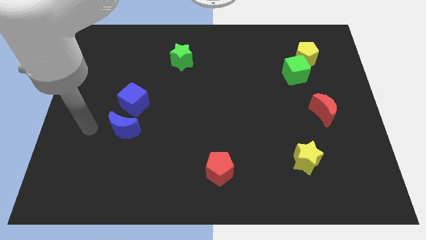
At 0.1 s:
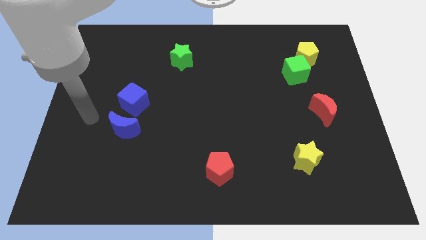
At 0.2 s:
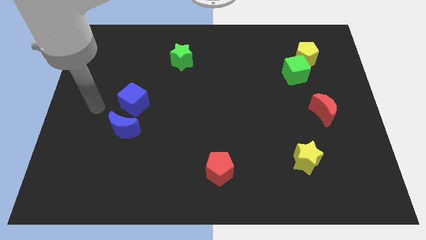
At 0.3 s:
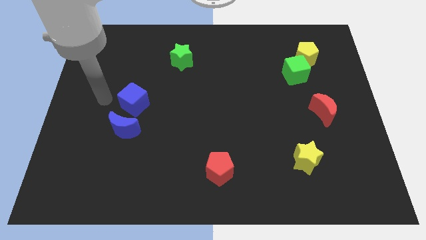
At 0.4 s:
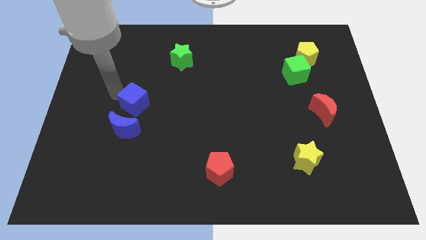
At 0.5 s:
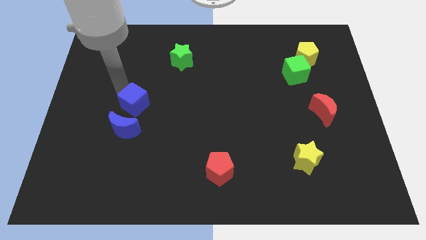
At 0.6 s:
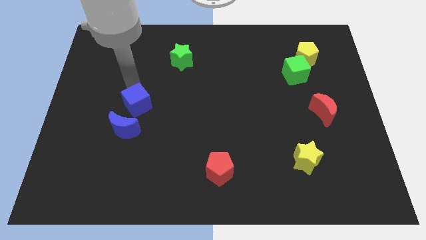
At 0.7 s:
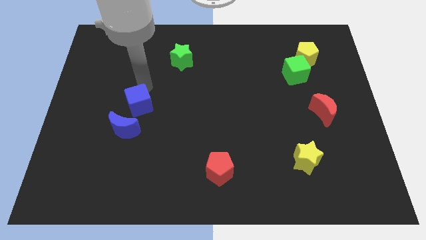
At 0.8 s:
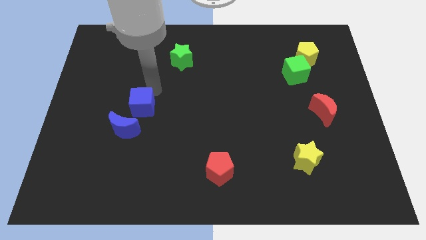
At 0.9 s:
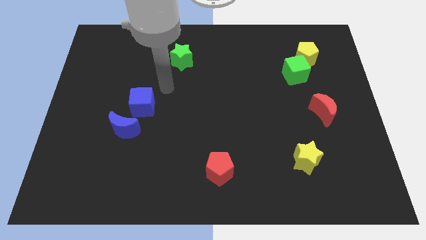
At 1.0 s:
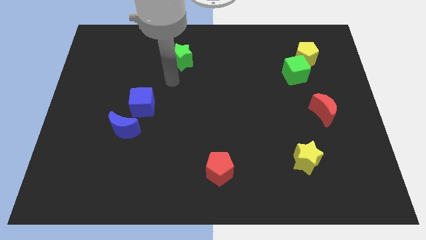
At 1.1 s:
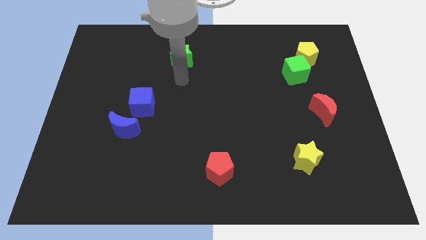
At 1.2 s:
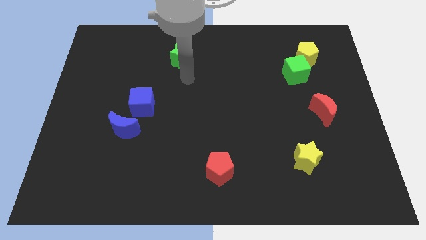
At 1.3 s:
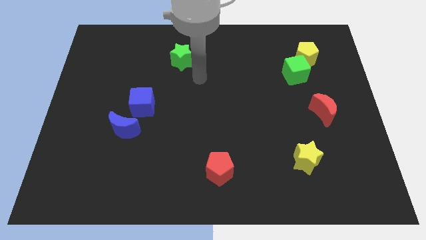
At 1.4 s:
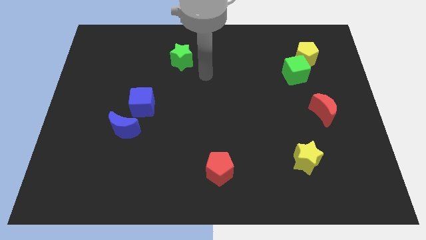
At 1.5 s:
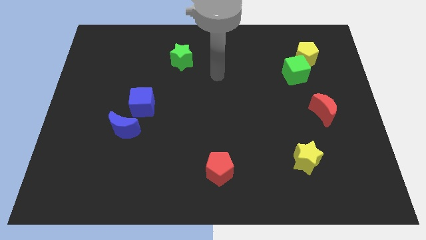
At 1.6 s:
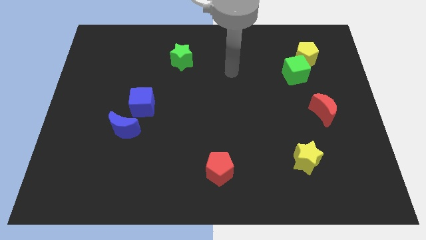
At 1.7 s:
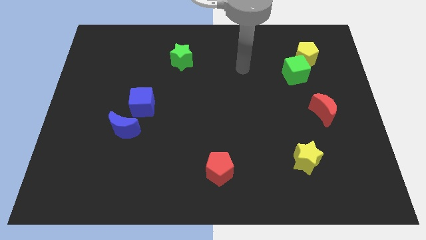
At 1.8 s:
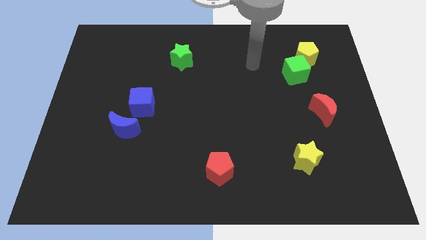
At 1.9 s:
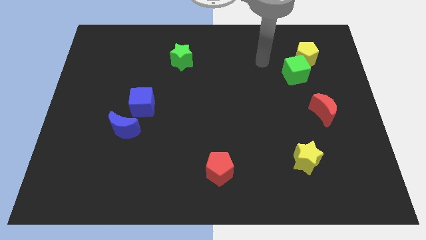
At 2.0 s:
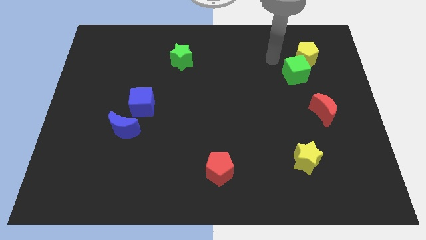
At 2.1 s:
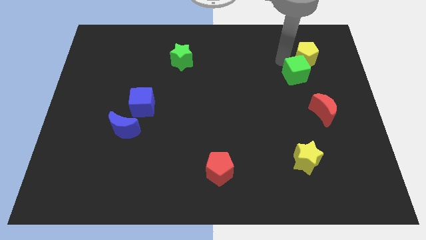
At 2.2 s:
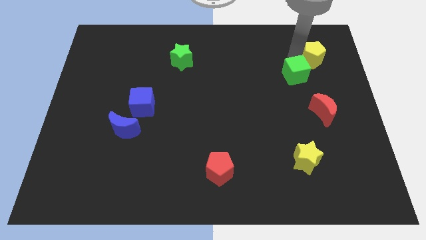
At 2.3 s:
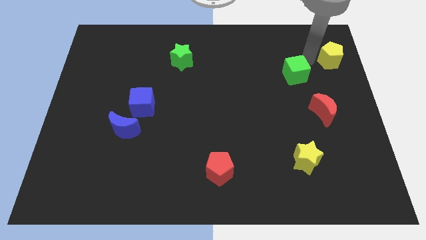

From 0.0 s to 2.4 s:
move the green cube away from the yellow pentagon

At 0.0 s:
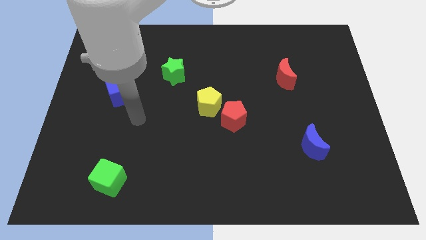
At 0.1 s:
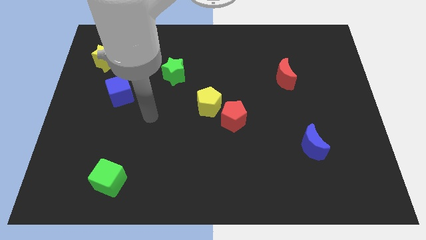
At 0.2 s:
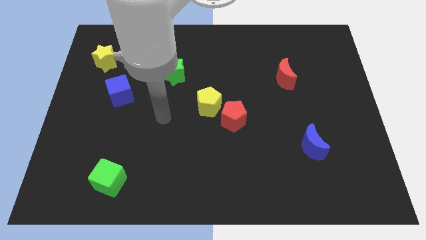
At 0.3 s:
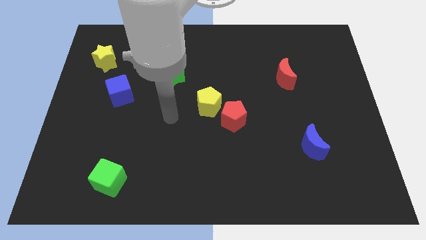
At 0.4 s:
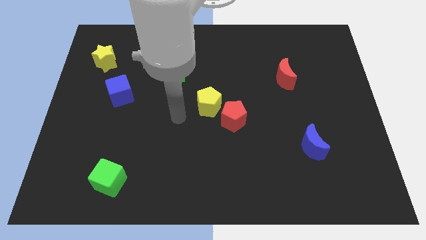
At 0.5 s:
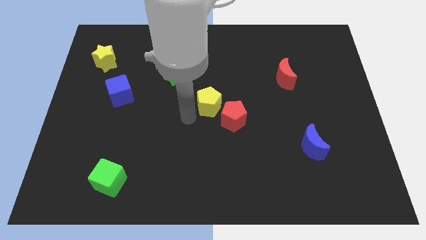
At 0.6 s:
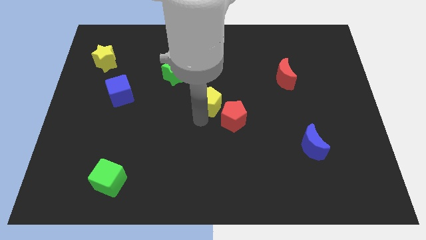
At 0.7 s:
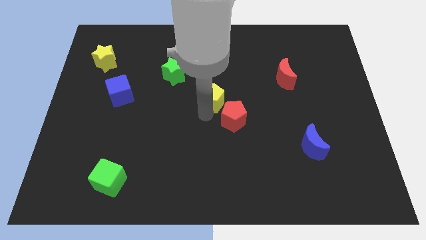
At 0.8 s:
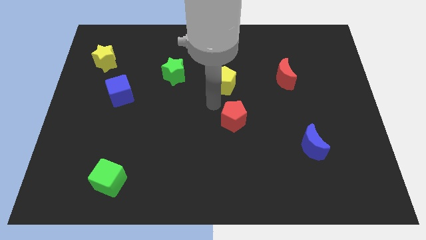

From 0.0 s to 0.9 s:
separate the red pentagon from the yellow pentagon

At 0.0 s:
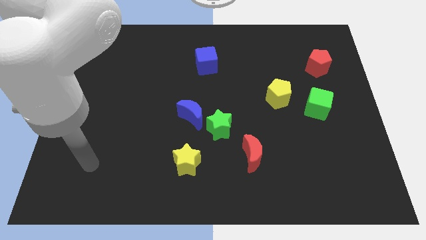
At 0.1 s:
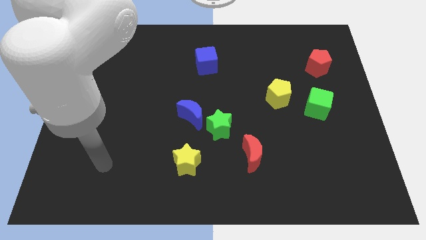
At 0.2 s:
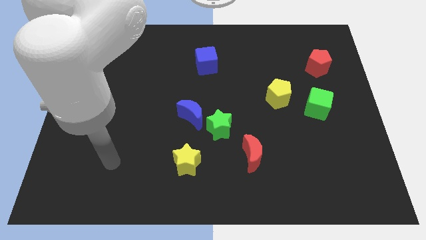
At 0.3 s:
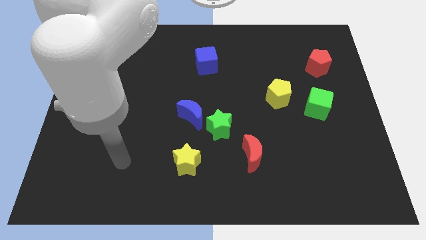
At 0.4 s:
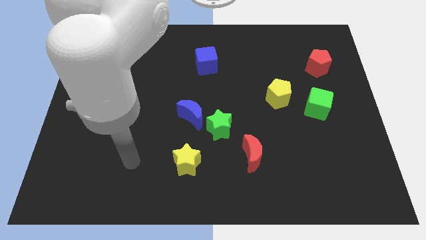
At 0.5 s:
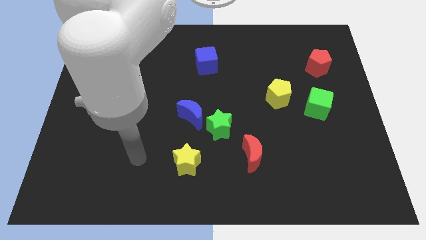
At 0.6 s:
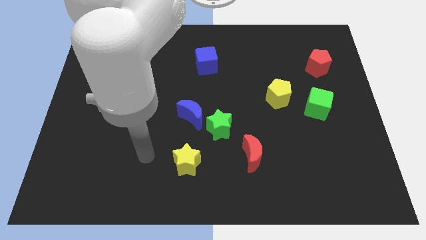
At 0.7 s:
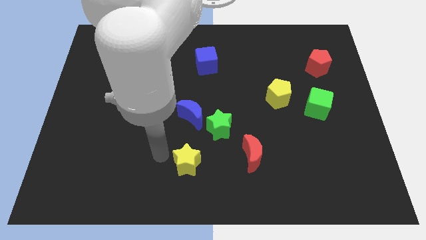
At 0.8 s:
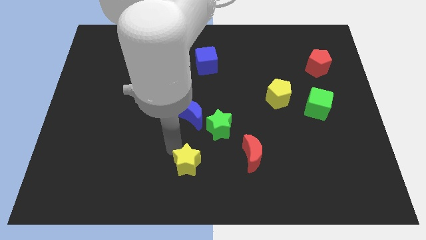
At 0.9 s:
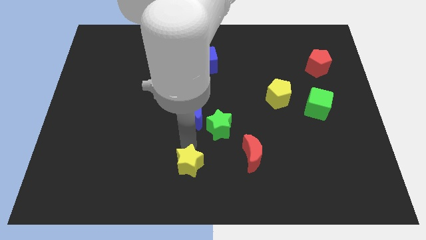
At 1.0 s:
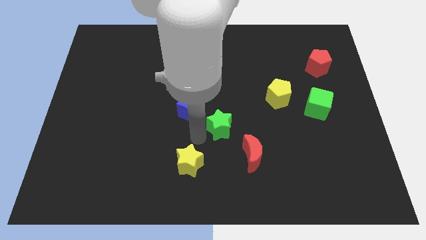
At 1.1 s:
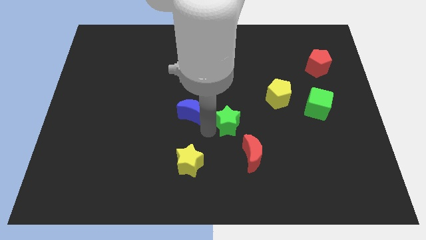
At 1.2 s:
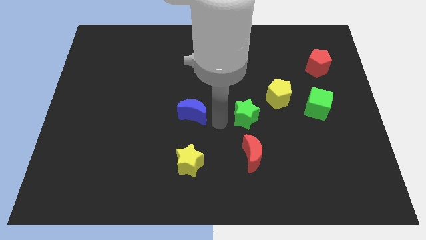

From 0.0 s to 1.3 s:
separate the blue moon from the green star

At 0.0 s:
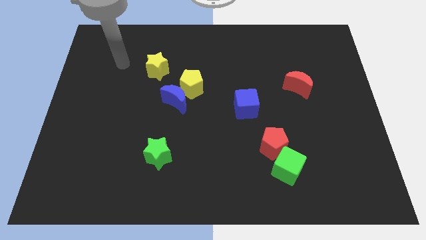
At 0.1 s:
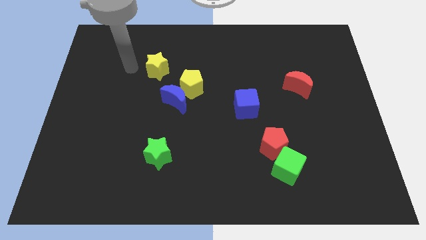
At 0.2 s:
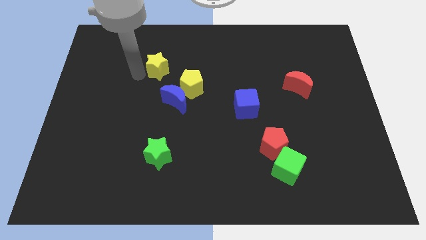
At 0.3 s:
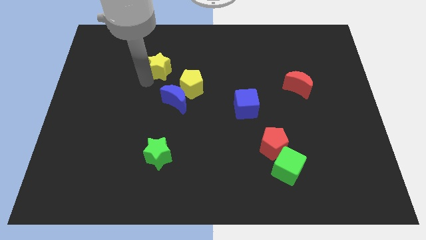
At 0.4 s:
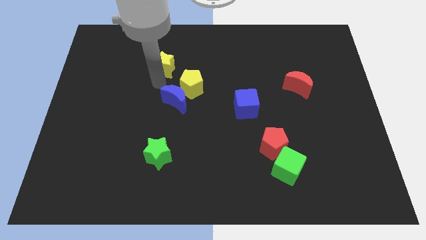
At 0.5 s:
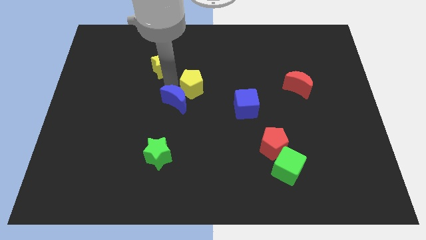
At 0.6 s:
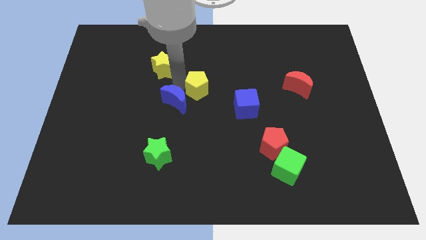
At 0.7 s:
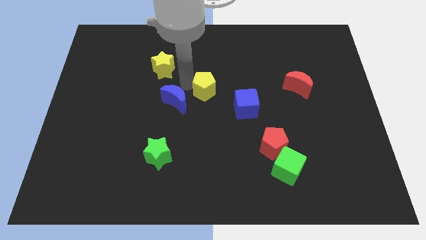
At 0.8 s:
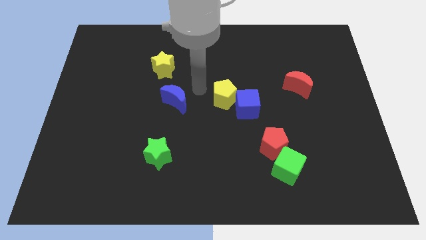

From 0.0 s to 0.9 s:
separate the blue moon from the yellow pentagon

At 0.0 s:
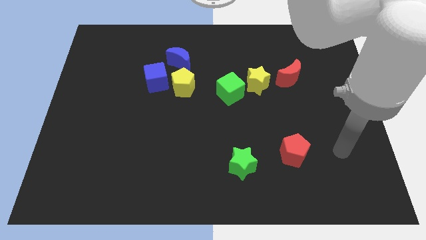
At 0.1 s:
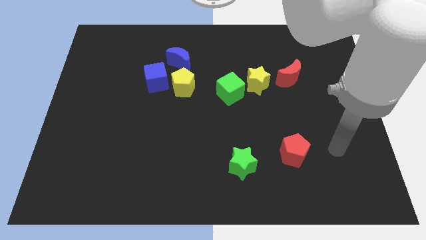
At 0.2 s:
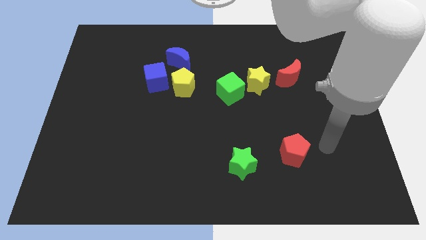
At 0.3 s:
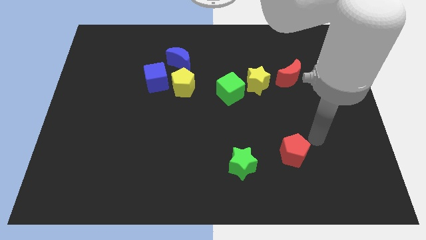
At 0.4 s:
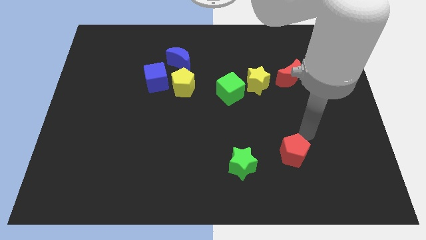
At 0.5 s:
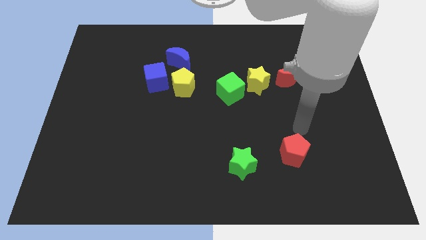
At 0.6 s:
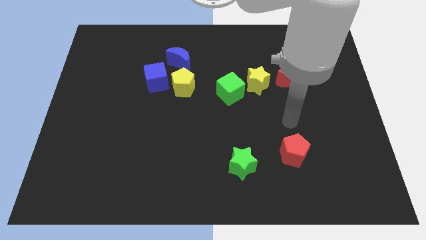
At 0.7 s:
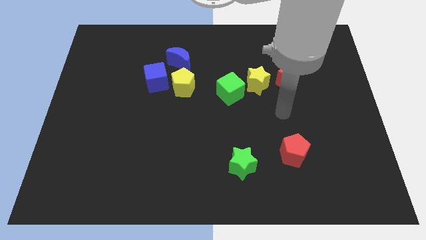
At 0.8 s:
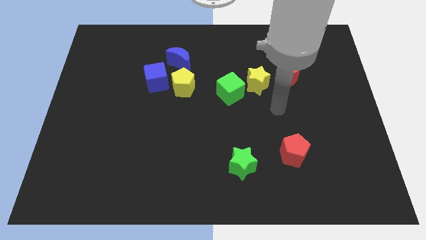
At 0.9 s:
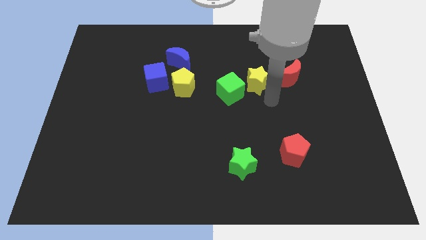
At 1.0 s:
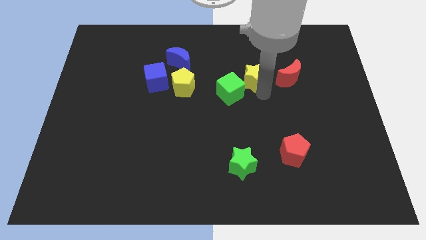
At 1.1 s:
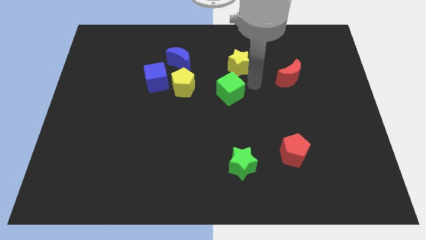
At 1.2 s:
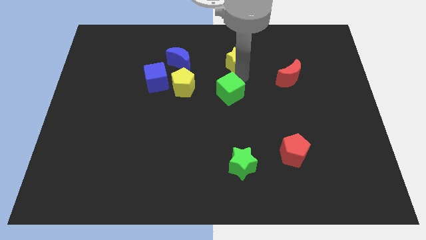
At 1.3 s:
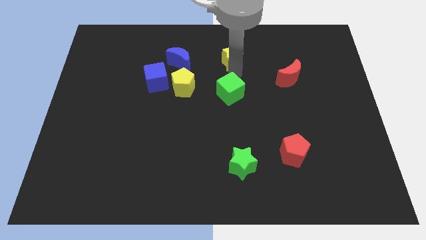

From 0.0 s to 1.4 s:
separate the green cube from the yellow star

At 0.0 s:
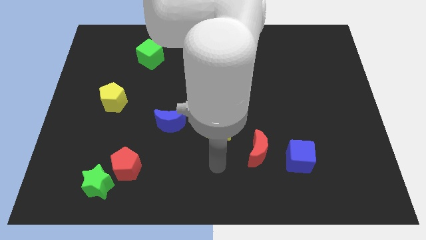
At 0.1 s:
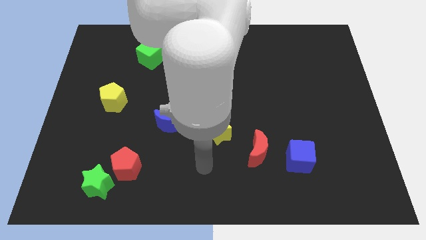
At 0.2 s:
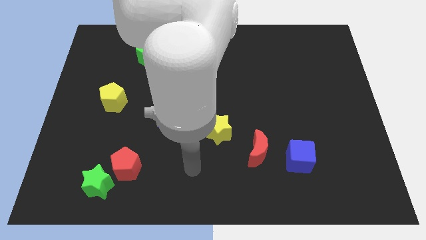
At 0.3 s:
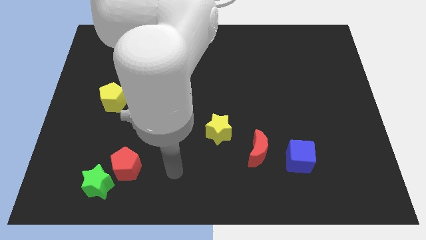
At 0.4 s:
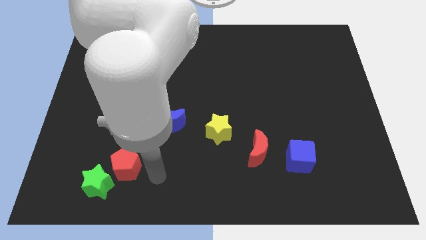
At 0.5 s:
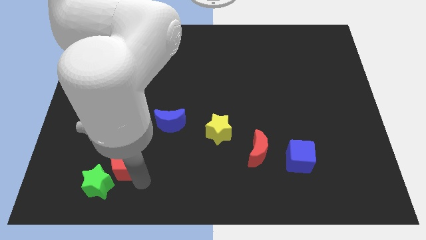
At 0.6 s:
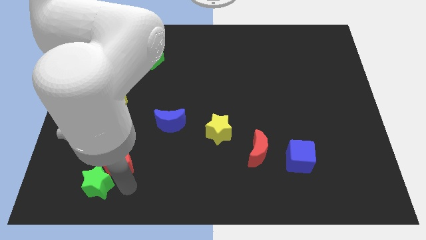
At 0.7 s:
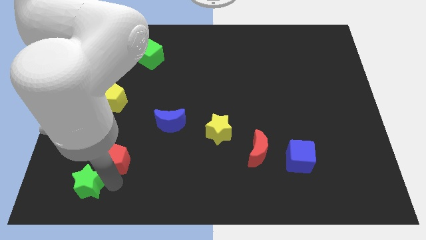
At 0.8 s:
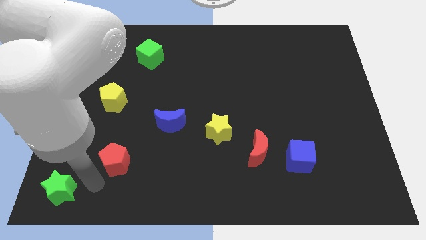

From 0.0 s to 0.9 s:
pull the red pentagon apart from the green star

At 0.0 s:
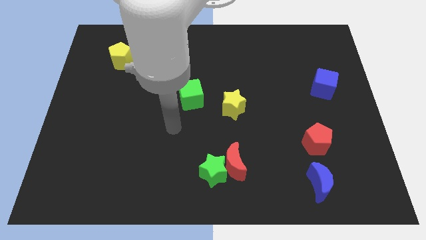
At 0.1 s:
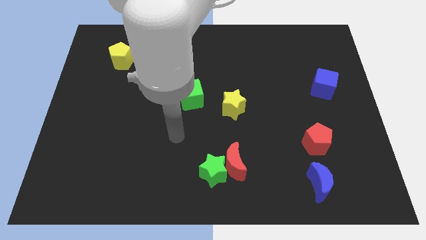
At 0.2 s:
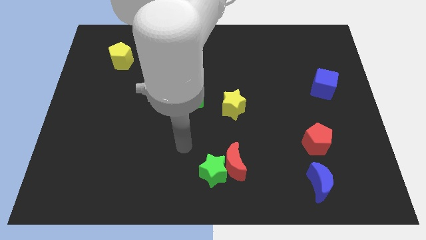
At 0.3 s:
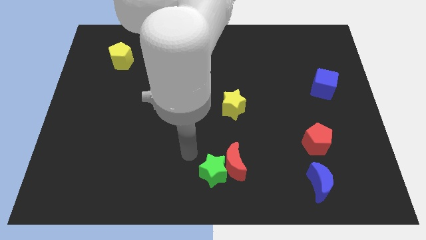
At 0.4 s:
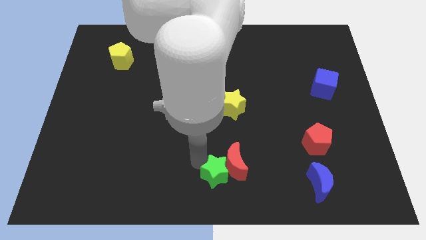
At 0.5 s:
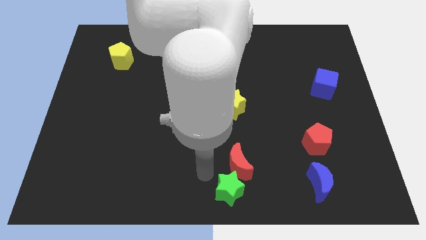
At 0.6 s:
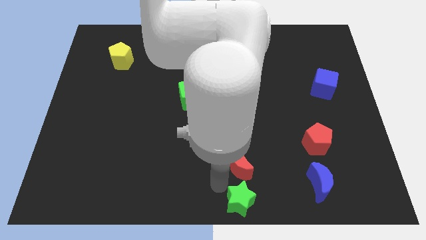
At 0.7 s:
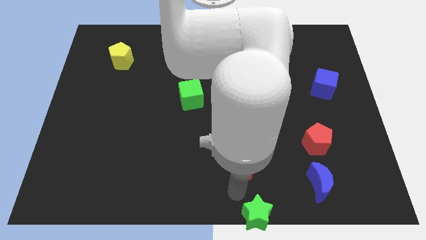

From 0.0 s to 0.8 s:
separate the red moon from the green star

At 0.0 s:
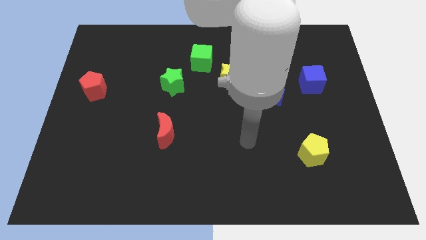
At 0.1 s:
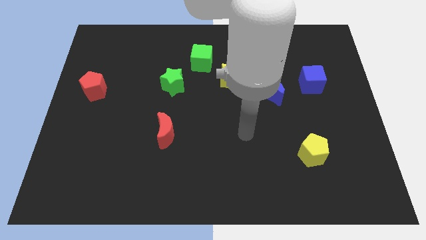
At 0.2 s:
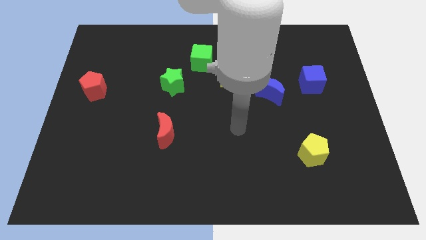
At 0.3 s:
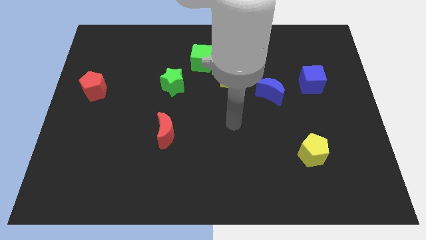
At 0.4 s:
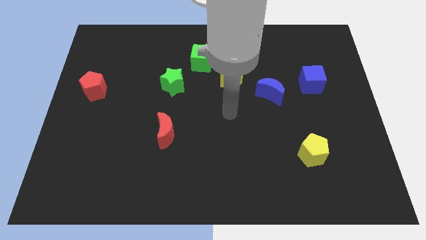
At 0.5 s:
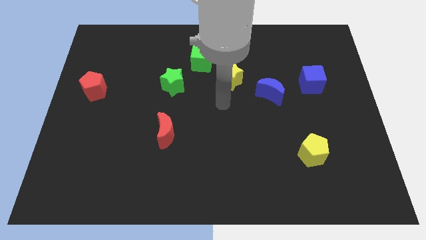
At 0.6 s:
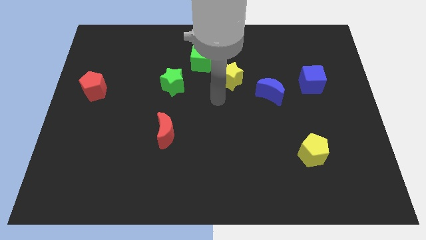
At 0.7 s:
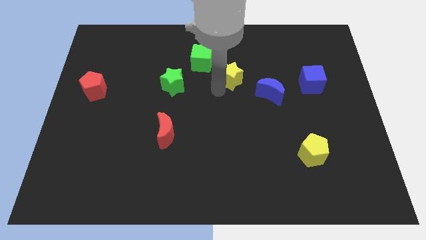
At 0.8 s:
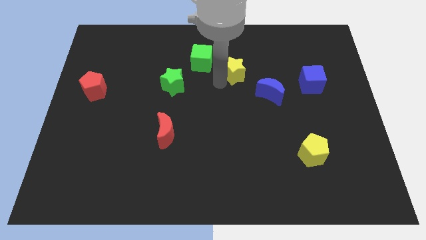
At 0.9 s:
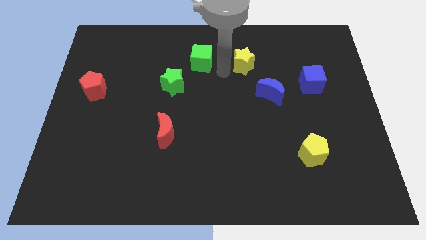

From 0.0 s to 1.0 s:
move the green cube away from the yellow star
